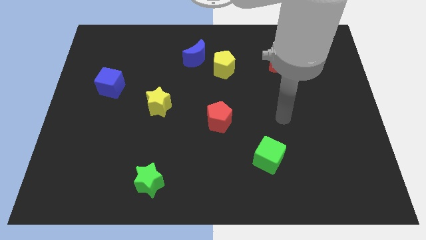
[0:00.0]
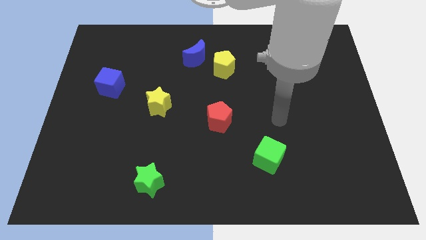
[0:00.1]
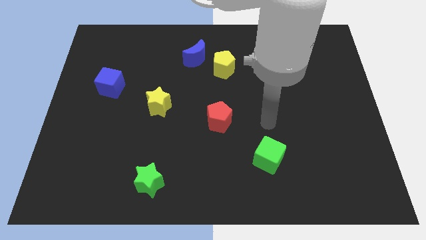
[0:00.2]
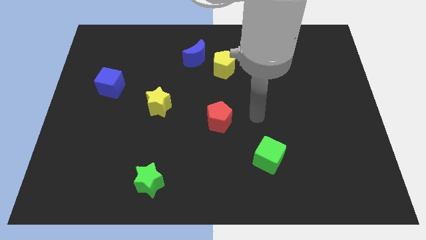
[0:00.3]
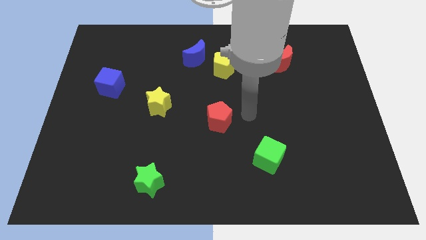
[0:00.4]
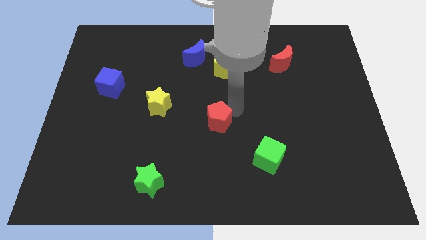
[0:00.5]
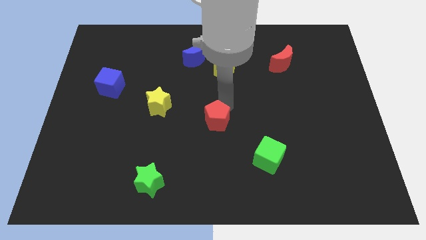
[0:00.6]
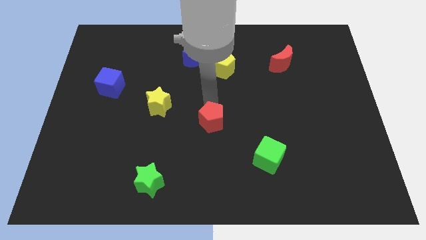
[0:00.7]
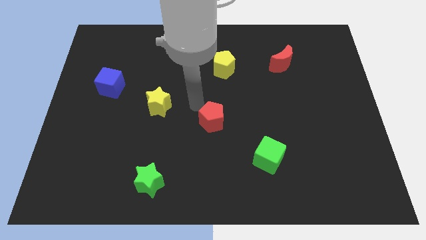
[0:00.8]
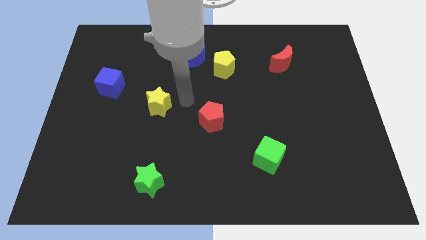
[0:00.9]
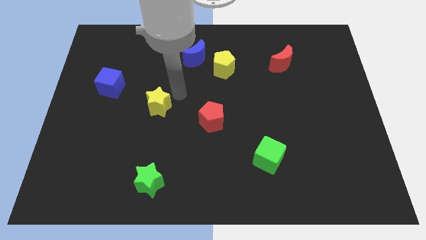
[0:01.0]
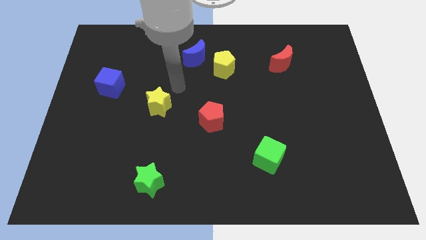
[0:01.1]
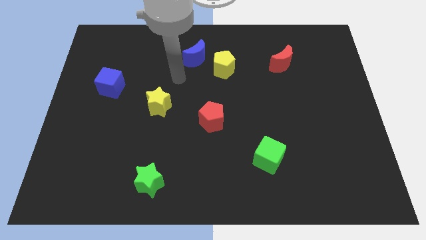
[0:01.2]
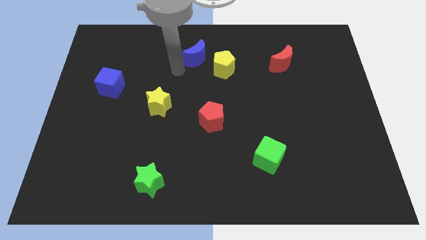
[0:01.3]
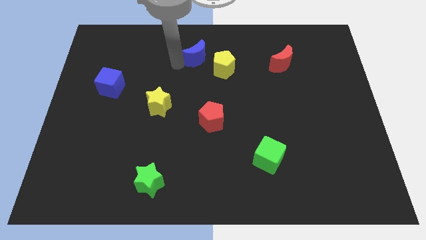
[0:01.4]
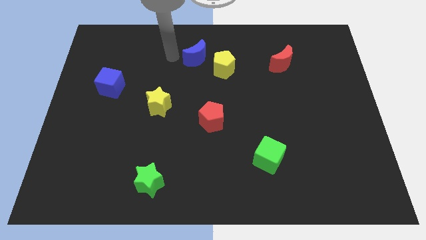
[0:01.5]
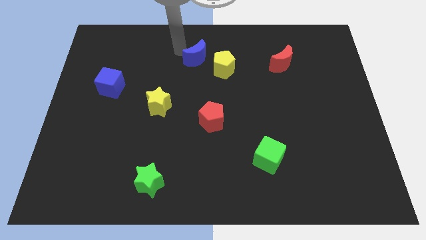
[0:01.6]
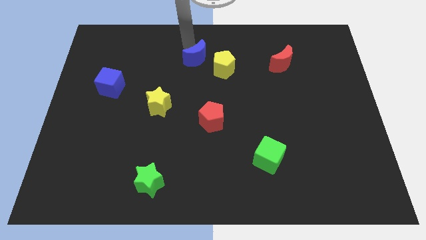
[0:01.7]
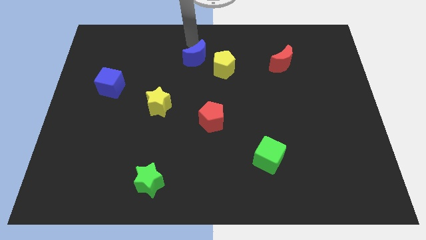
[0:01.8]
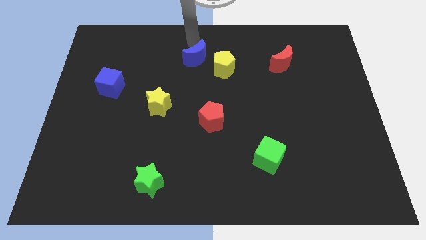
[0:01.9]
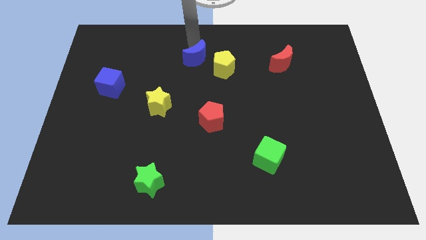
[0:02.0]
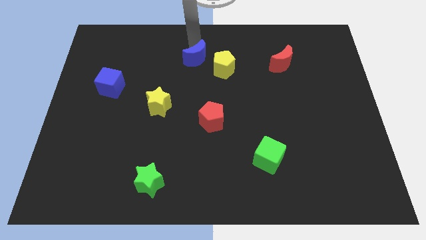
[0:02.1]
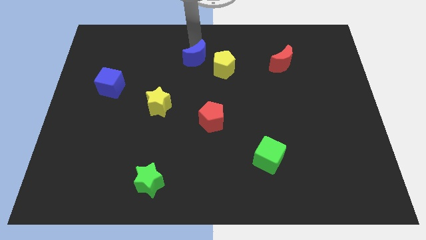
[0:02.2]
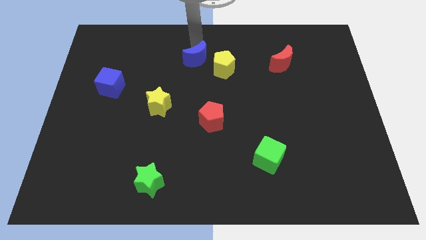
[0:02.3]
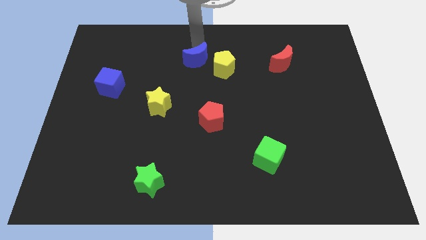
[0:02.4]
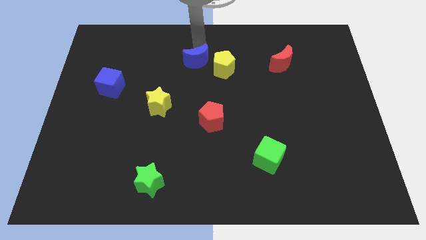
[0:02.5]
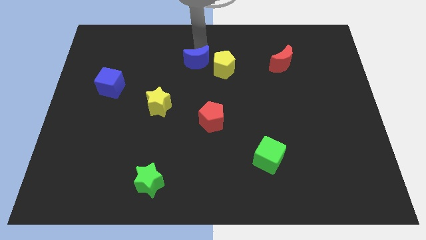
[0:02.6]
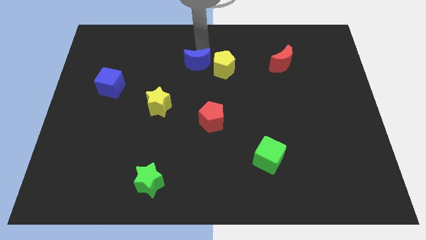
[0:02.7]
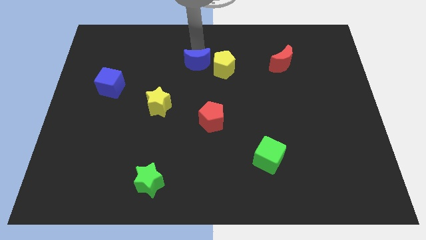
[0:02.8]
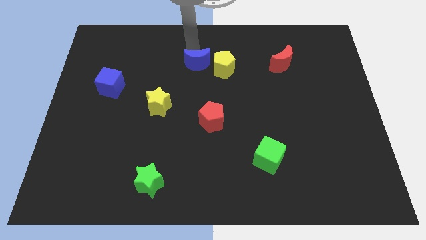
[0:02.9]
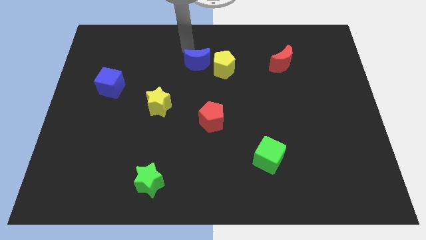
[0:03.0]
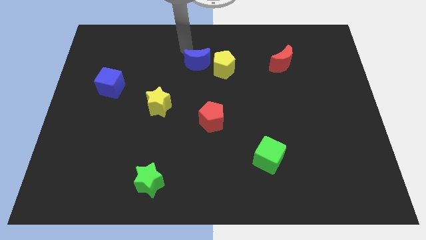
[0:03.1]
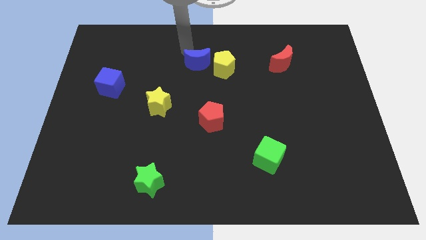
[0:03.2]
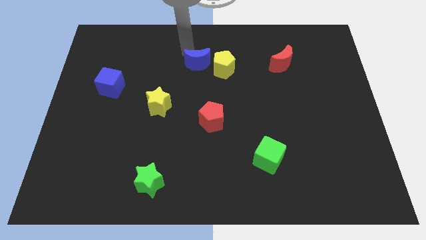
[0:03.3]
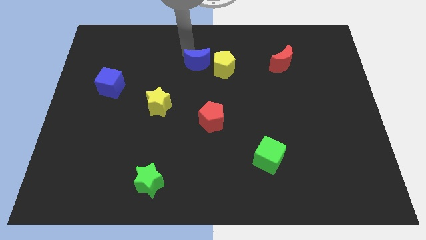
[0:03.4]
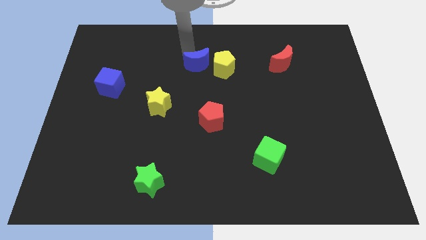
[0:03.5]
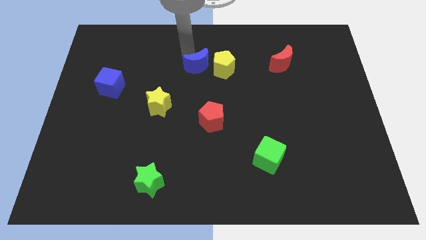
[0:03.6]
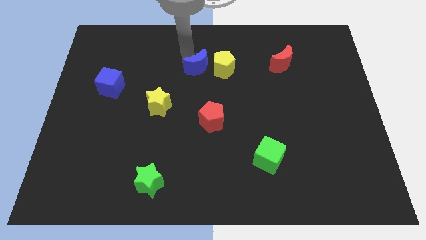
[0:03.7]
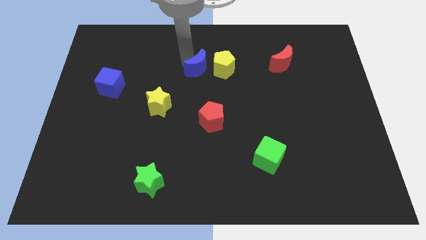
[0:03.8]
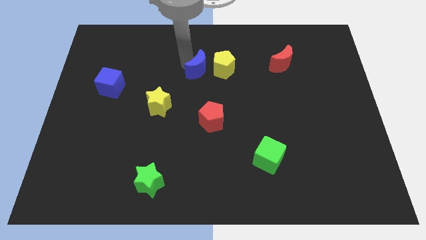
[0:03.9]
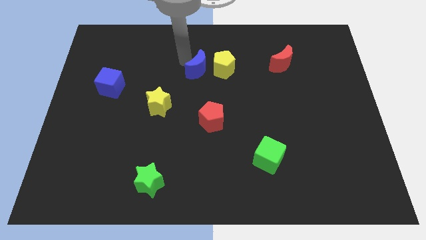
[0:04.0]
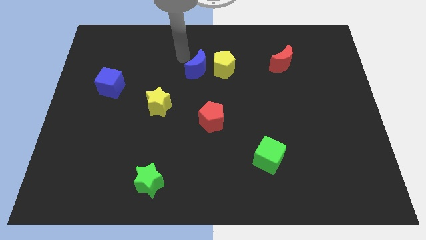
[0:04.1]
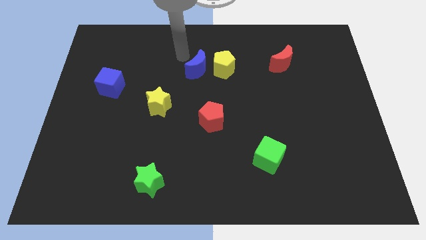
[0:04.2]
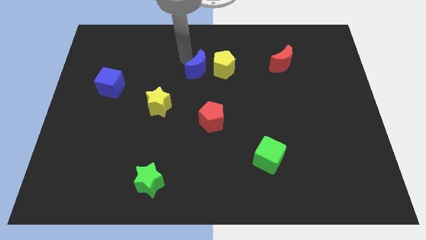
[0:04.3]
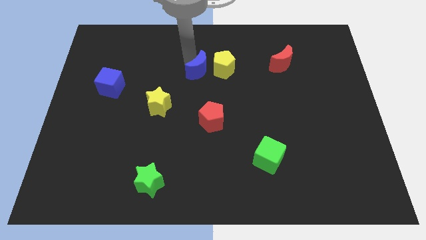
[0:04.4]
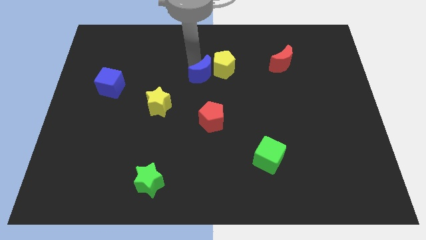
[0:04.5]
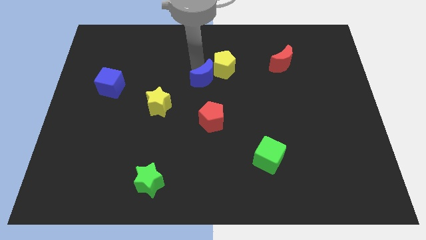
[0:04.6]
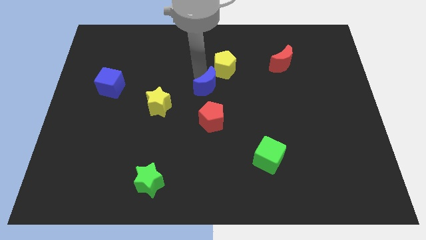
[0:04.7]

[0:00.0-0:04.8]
move the blue moon downwards and to the right diagonally a bit

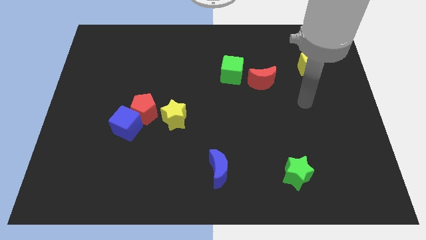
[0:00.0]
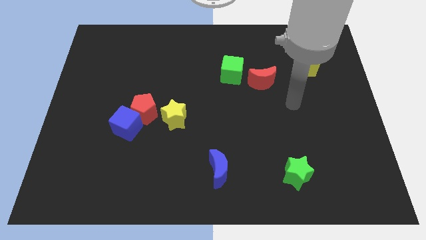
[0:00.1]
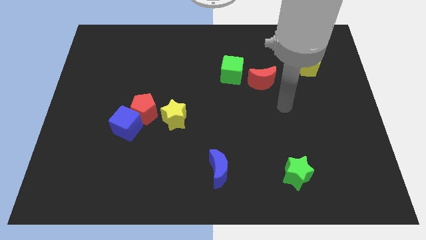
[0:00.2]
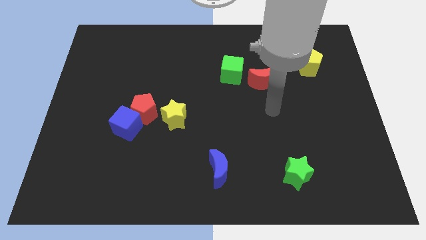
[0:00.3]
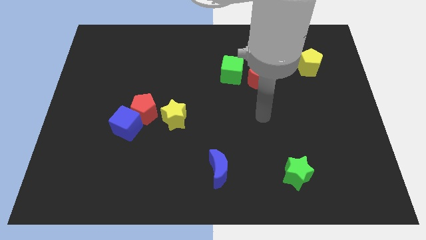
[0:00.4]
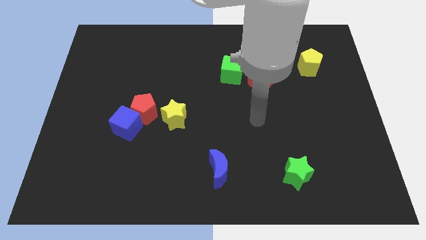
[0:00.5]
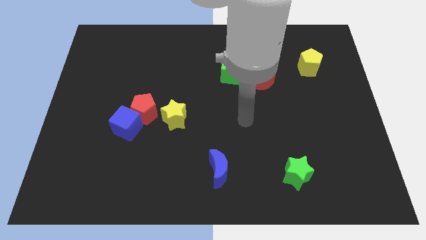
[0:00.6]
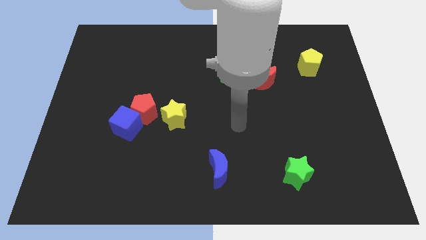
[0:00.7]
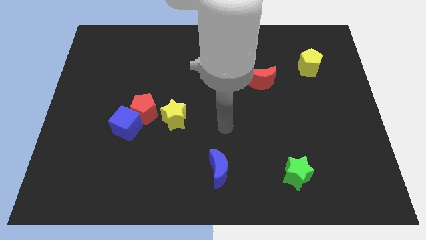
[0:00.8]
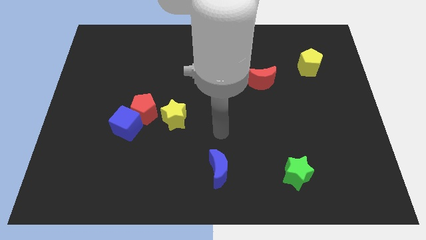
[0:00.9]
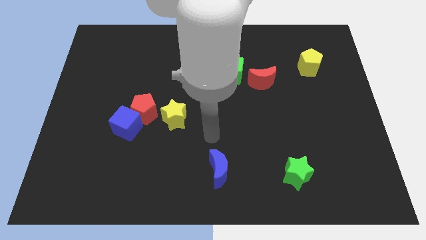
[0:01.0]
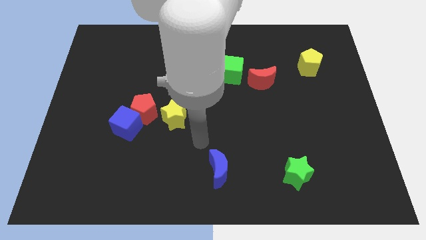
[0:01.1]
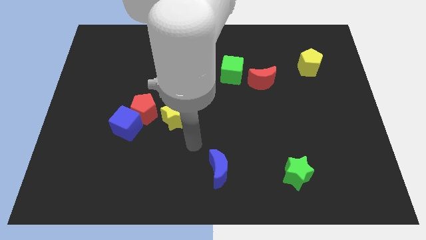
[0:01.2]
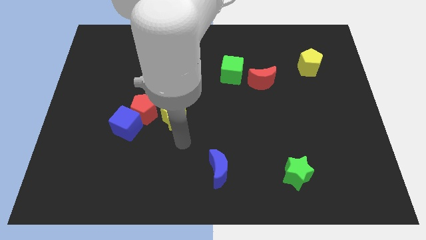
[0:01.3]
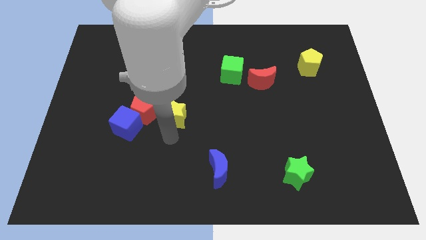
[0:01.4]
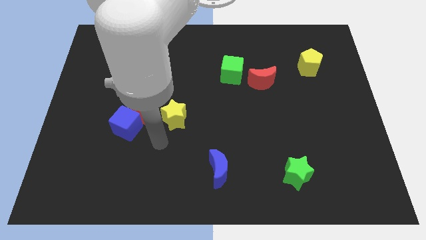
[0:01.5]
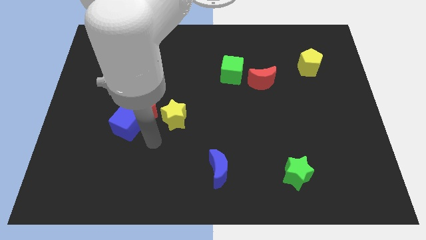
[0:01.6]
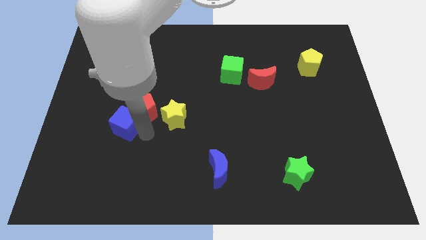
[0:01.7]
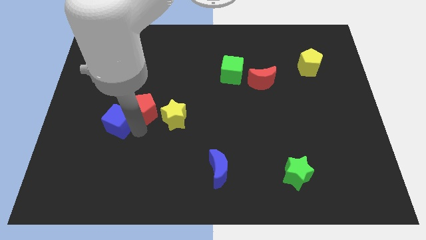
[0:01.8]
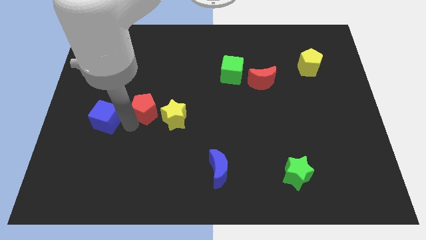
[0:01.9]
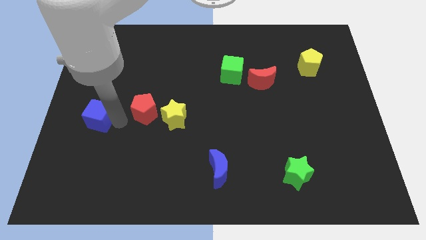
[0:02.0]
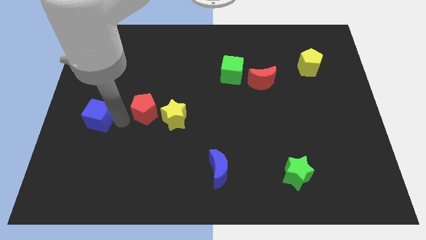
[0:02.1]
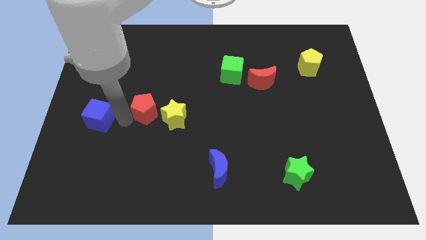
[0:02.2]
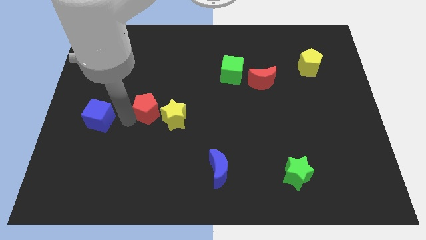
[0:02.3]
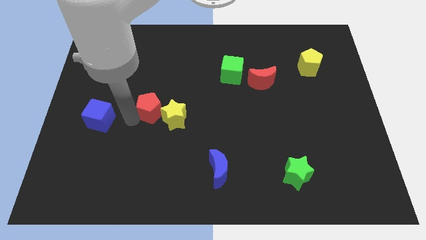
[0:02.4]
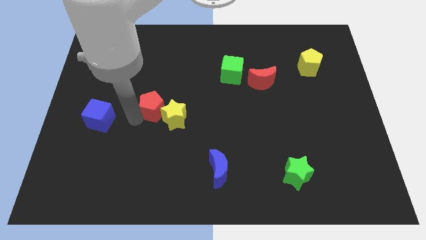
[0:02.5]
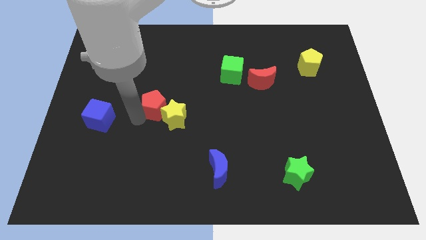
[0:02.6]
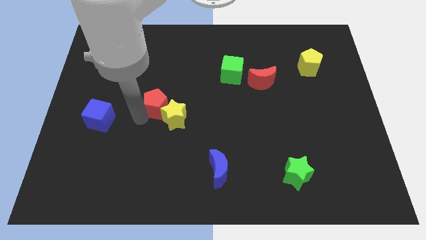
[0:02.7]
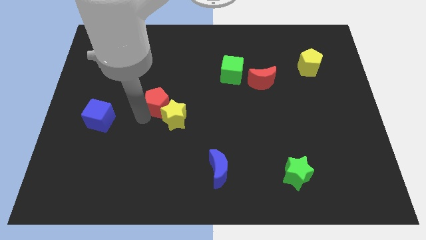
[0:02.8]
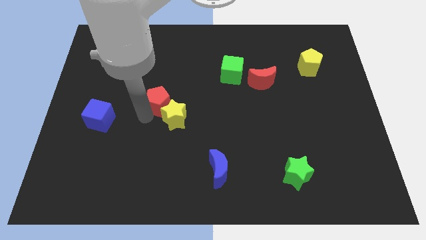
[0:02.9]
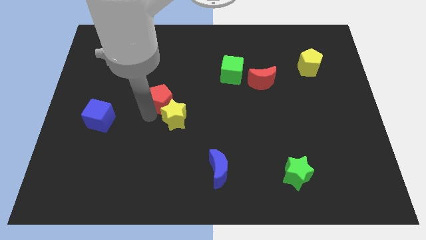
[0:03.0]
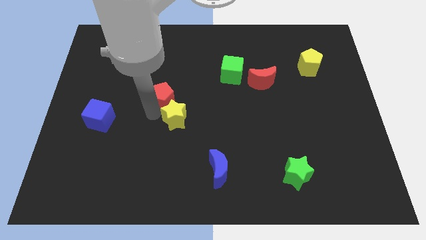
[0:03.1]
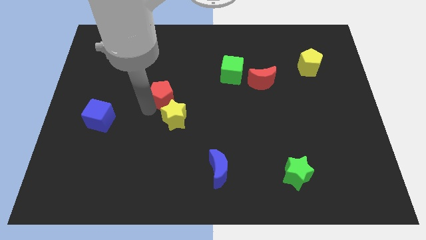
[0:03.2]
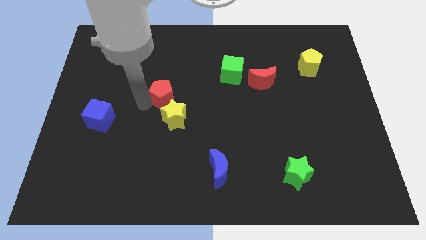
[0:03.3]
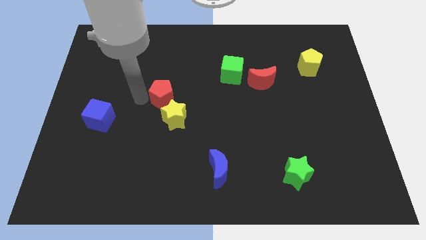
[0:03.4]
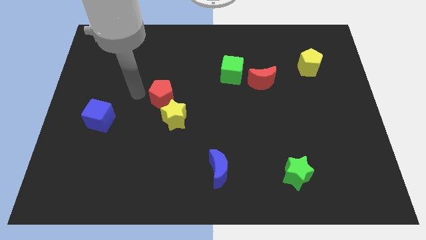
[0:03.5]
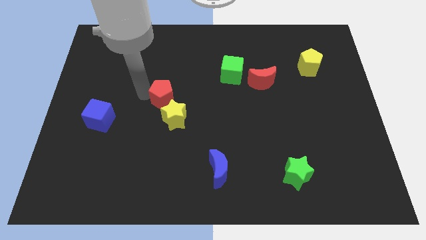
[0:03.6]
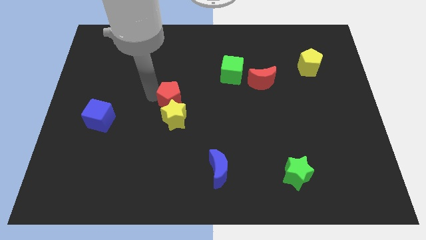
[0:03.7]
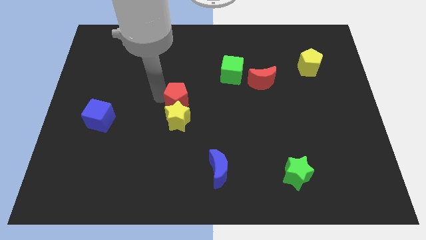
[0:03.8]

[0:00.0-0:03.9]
slide the red pentagon to the right a little
